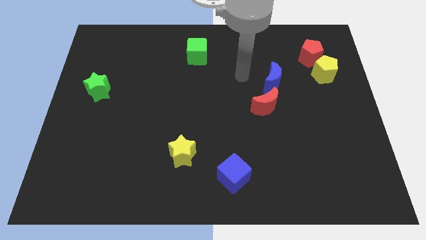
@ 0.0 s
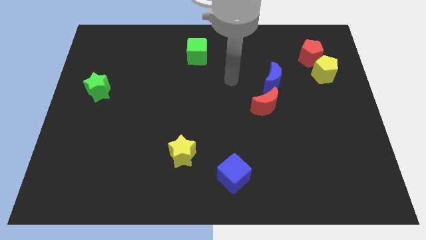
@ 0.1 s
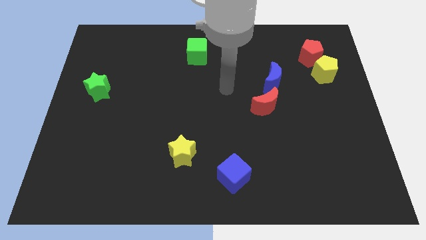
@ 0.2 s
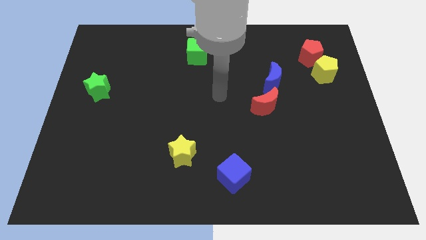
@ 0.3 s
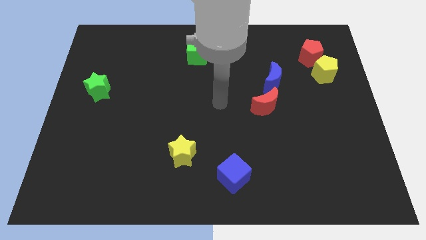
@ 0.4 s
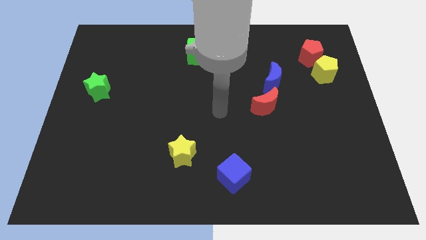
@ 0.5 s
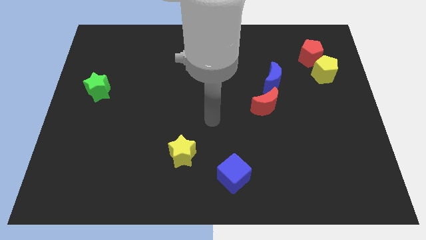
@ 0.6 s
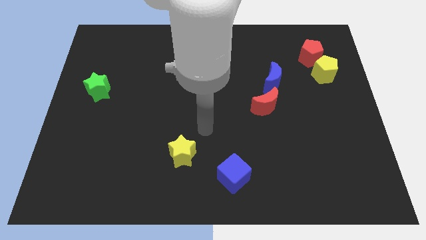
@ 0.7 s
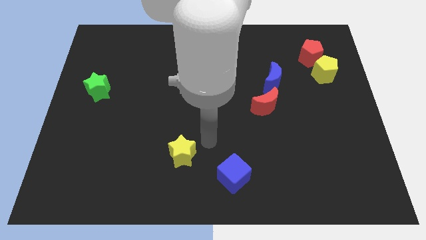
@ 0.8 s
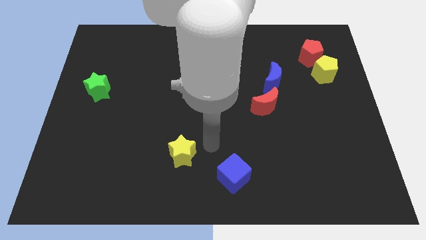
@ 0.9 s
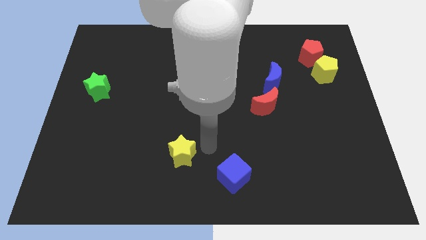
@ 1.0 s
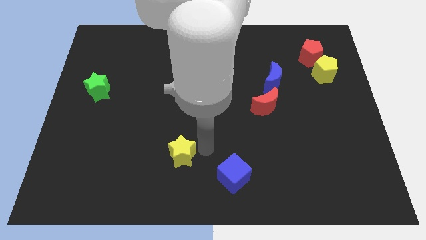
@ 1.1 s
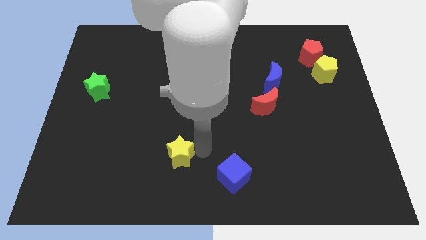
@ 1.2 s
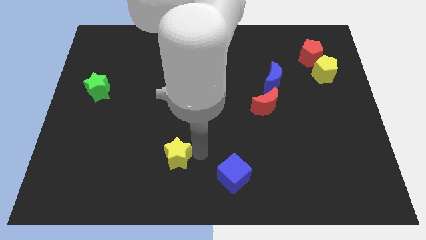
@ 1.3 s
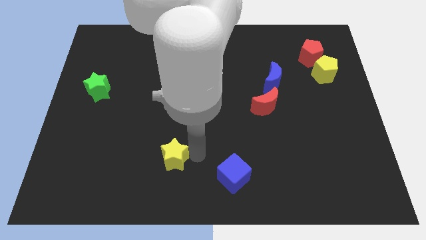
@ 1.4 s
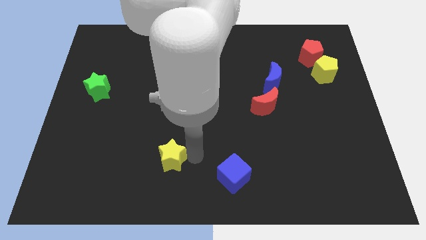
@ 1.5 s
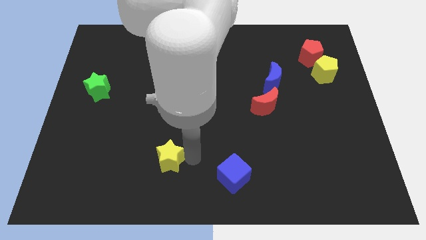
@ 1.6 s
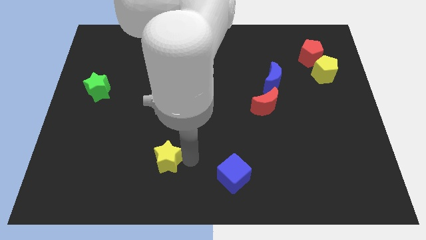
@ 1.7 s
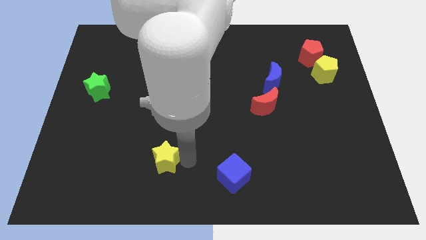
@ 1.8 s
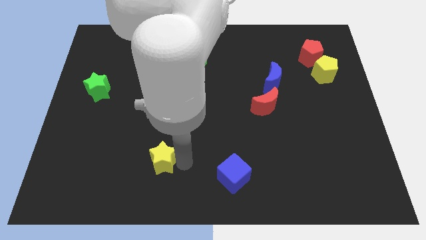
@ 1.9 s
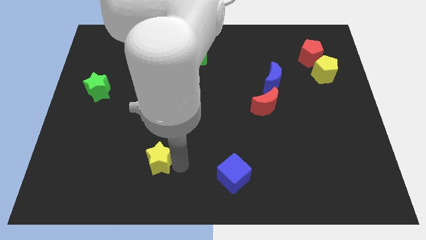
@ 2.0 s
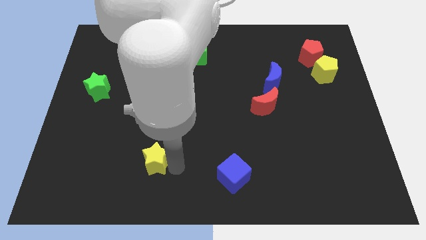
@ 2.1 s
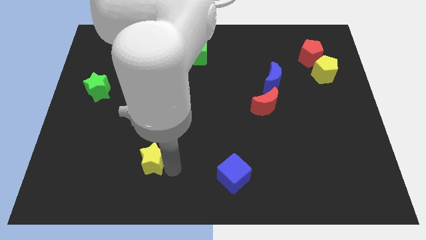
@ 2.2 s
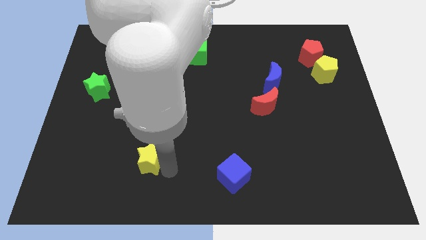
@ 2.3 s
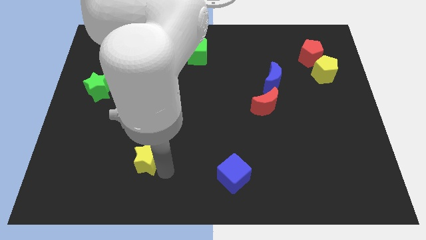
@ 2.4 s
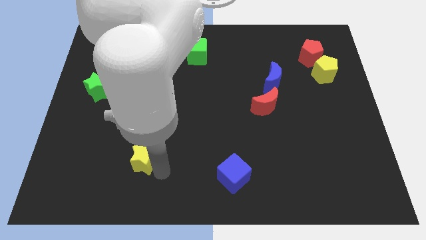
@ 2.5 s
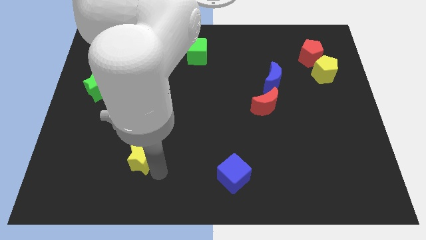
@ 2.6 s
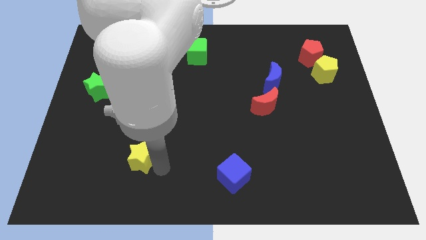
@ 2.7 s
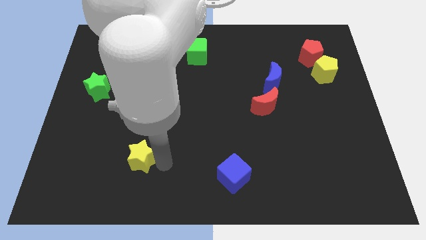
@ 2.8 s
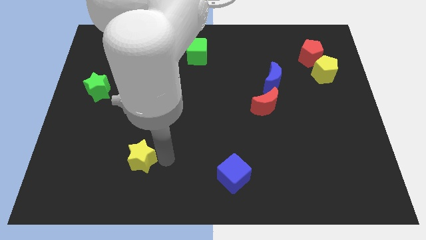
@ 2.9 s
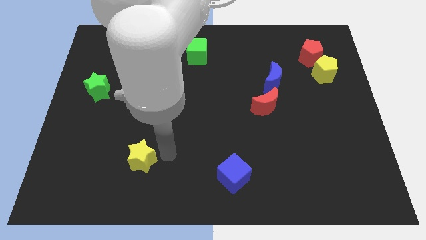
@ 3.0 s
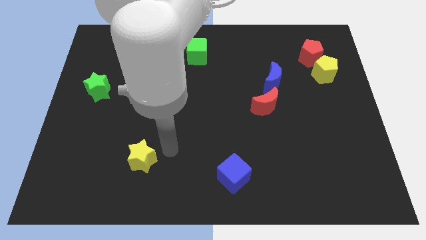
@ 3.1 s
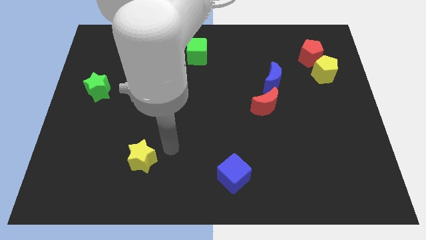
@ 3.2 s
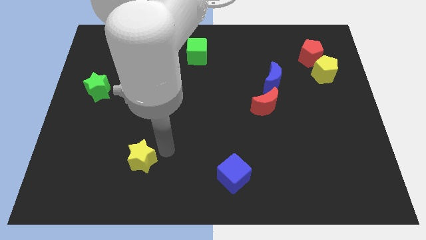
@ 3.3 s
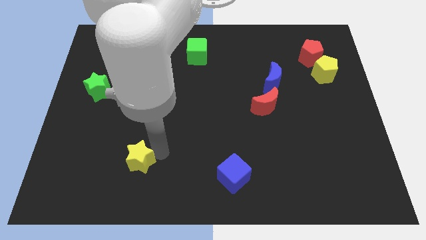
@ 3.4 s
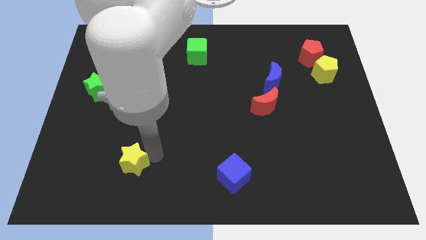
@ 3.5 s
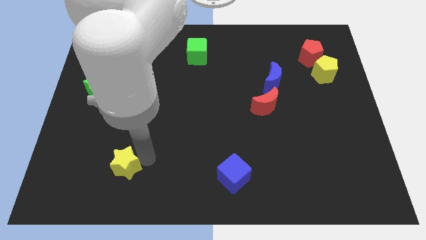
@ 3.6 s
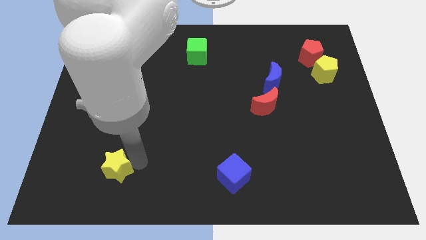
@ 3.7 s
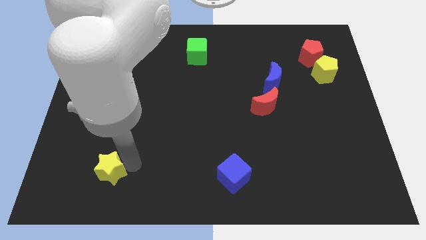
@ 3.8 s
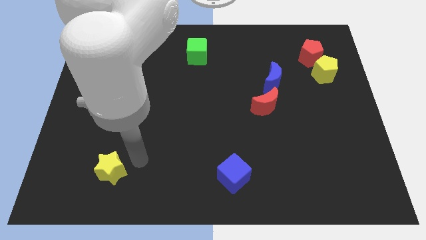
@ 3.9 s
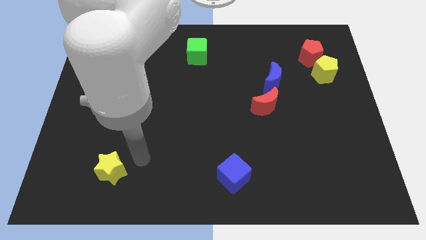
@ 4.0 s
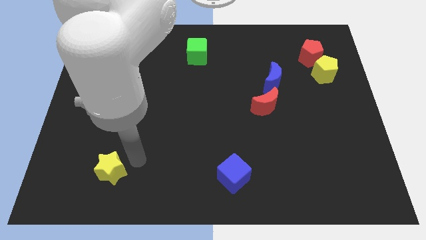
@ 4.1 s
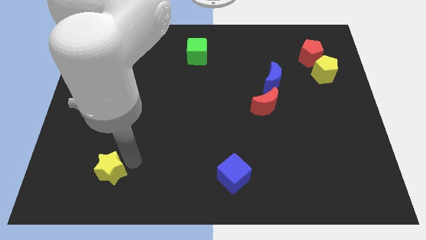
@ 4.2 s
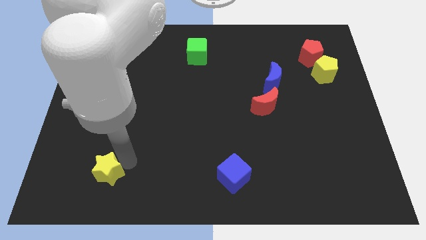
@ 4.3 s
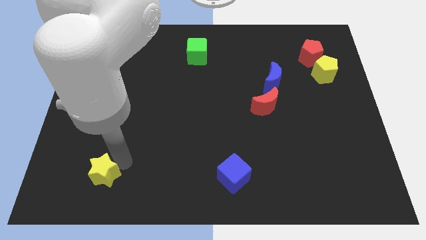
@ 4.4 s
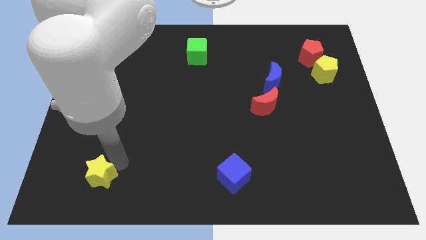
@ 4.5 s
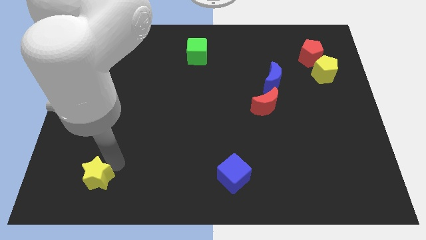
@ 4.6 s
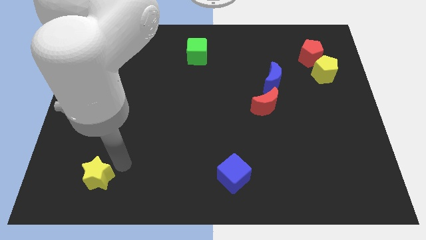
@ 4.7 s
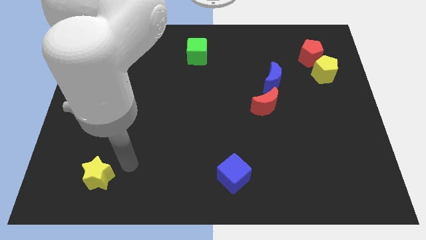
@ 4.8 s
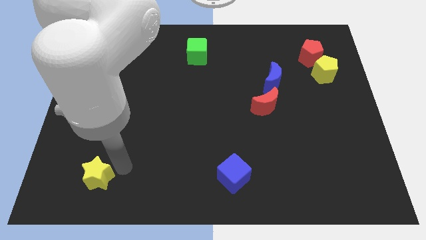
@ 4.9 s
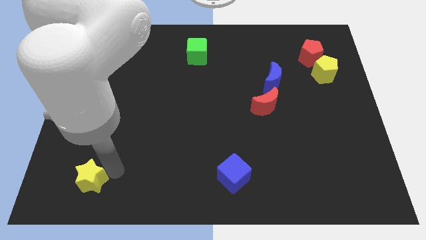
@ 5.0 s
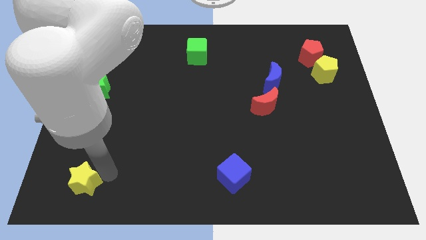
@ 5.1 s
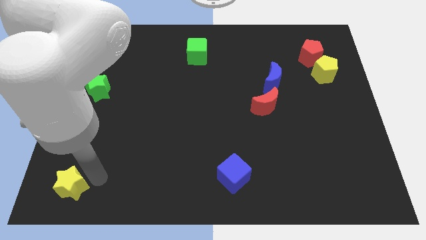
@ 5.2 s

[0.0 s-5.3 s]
move the yellow star to the bottom left of the board

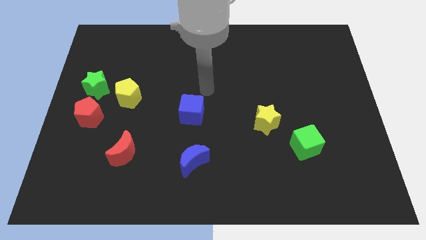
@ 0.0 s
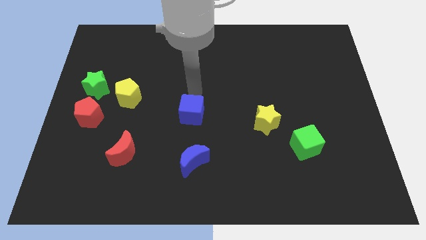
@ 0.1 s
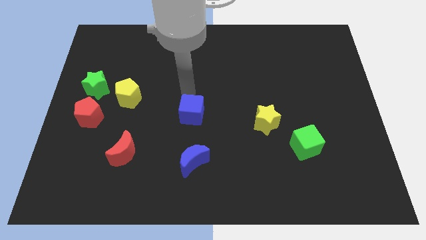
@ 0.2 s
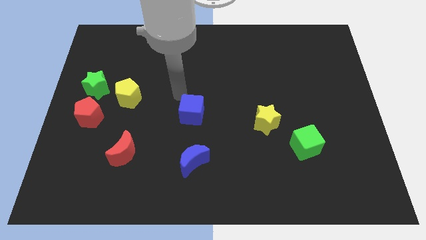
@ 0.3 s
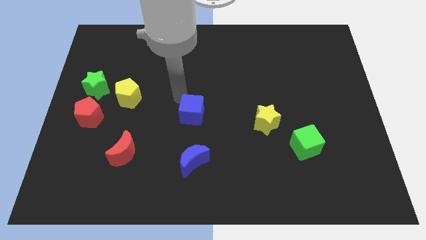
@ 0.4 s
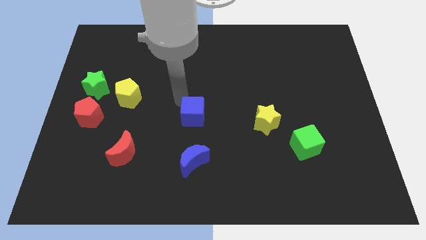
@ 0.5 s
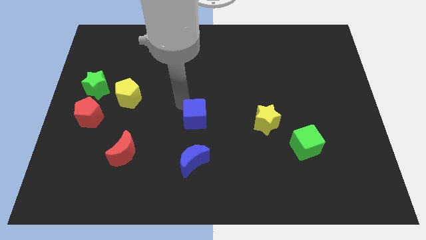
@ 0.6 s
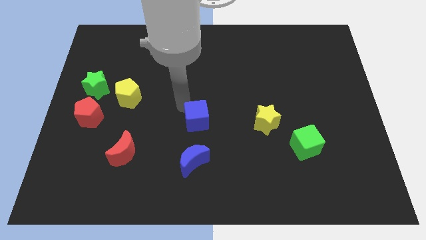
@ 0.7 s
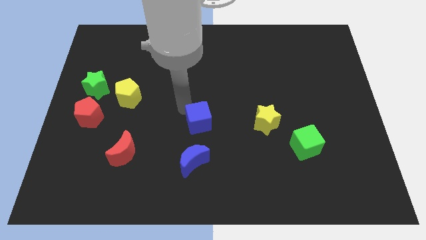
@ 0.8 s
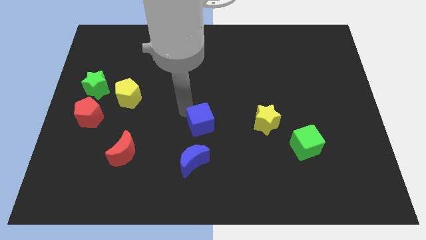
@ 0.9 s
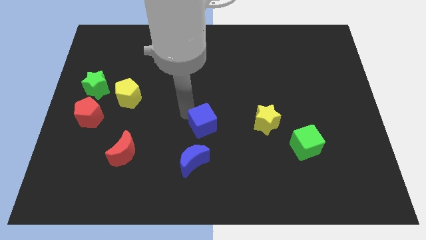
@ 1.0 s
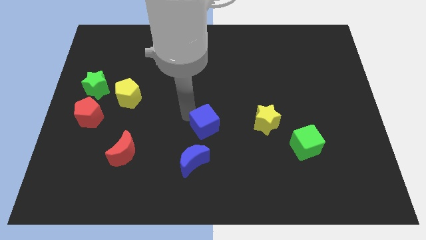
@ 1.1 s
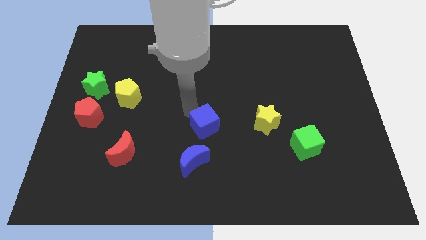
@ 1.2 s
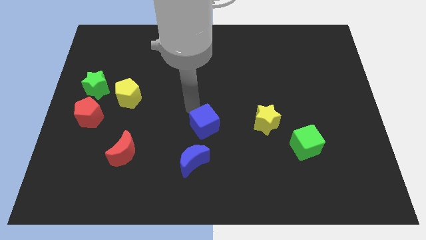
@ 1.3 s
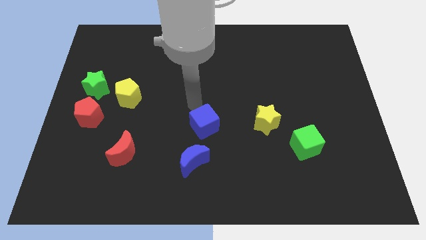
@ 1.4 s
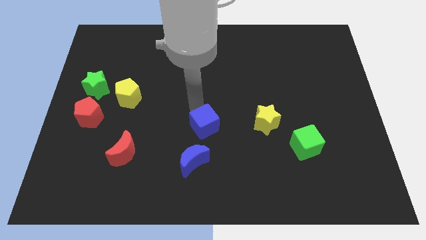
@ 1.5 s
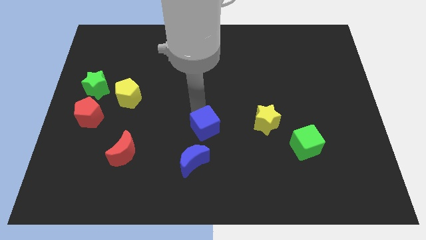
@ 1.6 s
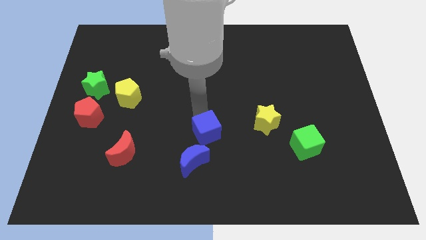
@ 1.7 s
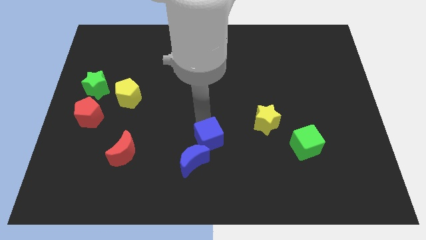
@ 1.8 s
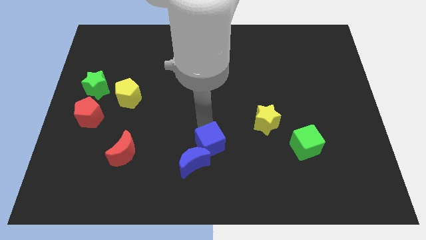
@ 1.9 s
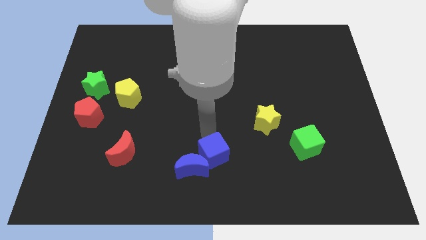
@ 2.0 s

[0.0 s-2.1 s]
push the blue cube to the bottom

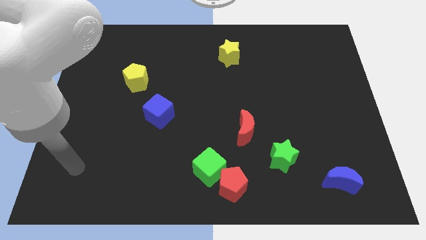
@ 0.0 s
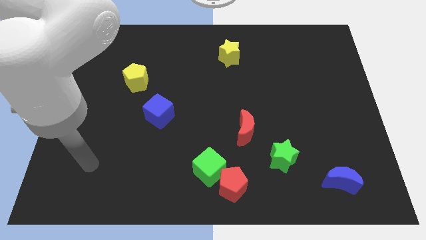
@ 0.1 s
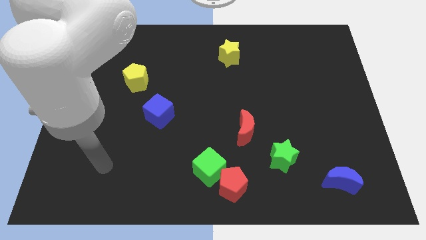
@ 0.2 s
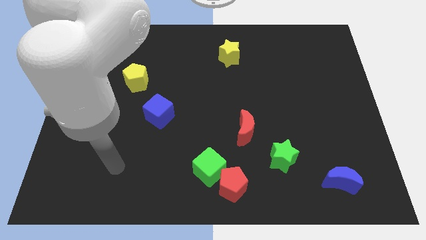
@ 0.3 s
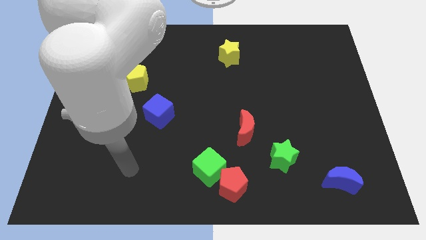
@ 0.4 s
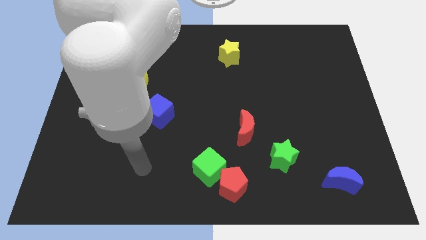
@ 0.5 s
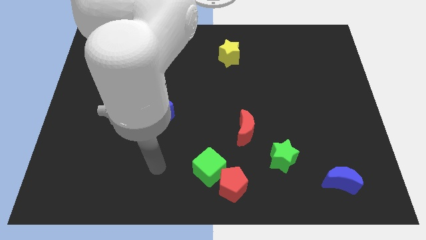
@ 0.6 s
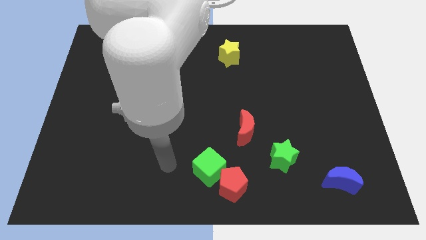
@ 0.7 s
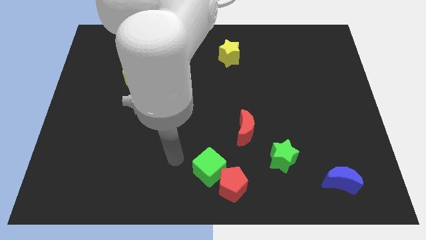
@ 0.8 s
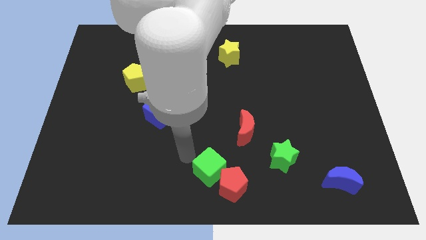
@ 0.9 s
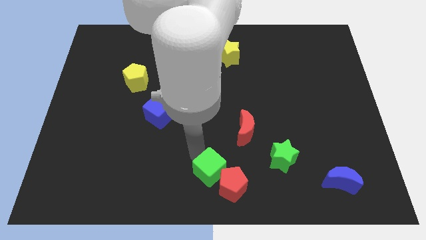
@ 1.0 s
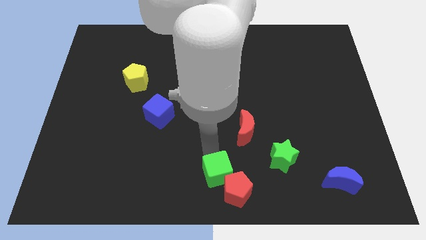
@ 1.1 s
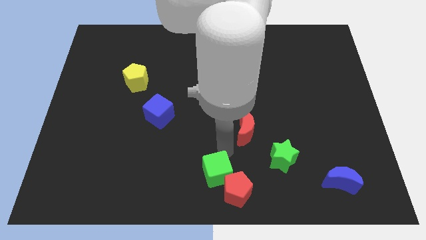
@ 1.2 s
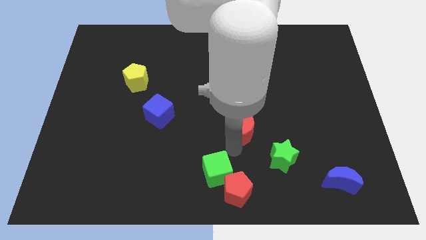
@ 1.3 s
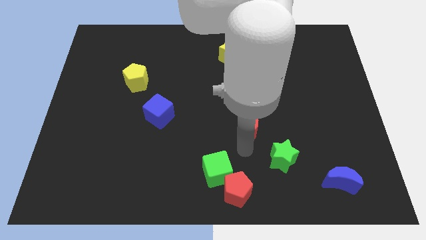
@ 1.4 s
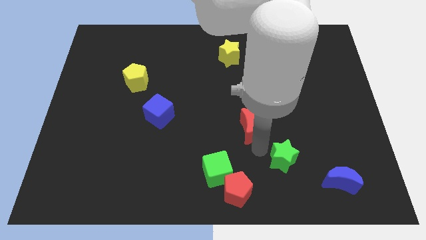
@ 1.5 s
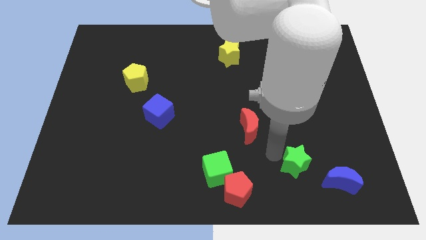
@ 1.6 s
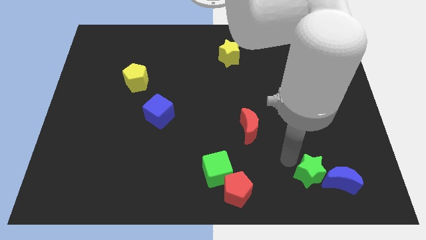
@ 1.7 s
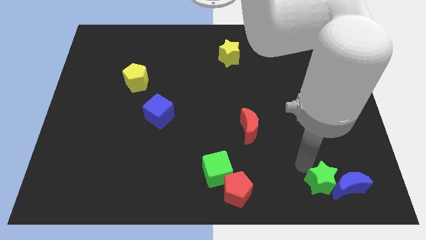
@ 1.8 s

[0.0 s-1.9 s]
move the blue moon to the bottom right
